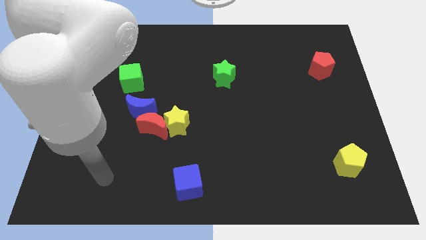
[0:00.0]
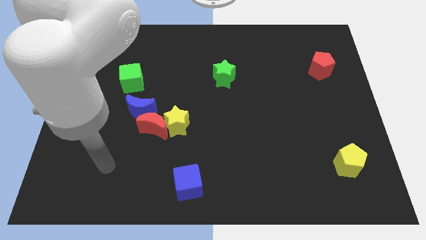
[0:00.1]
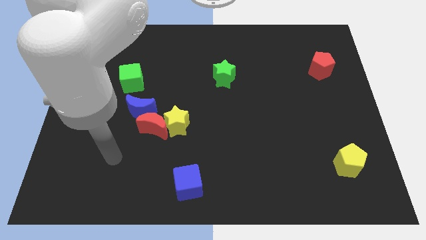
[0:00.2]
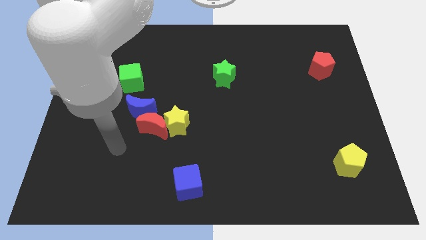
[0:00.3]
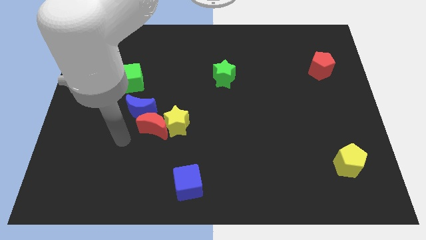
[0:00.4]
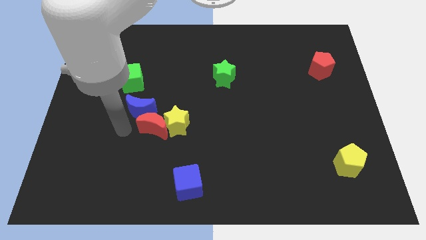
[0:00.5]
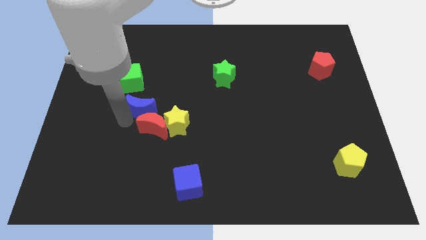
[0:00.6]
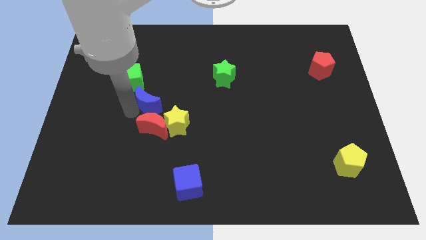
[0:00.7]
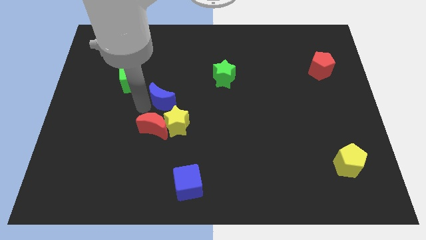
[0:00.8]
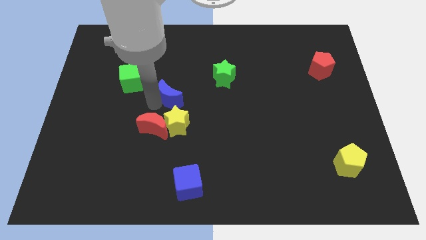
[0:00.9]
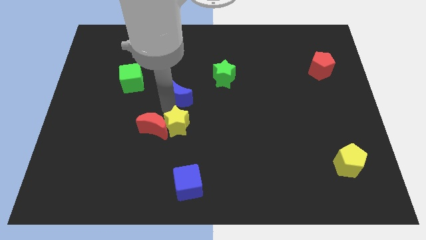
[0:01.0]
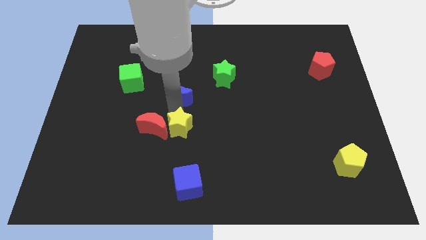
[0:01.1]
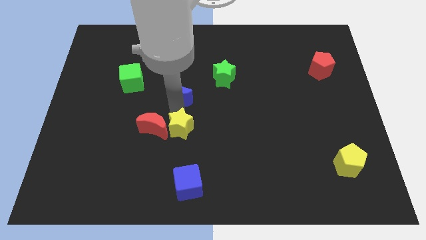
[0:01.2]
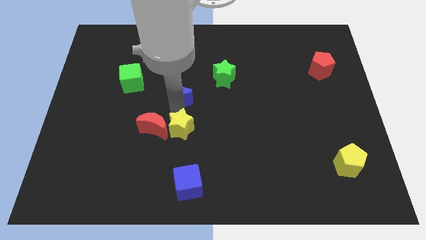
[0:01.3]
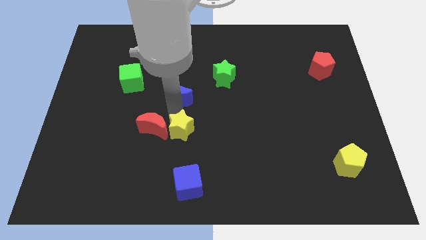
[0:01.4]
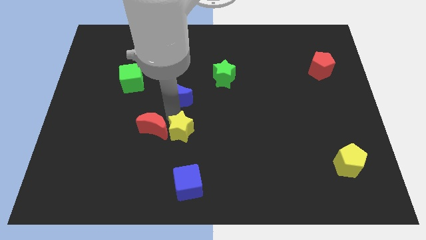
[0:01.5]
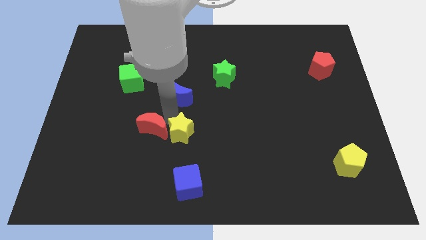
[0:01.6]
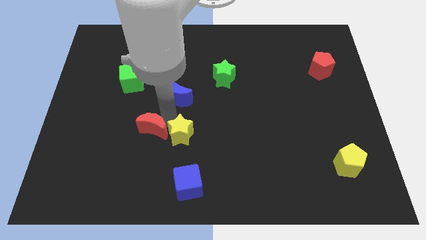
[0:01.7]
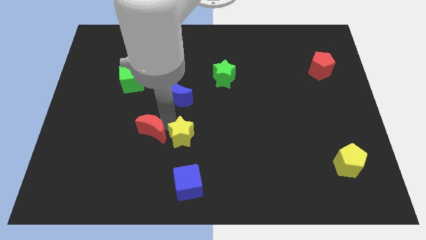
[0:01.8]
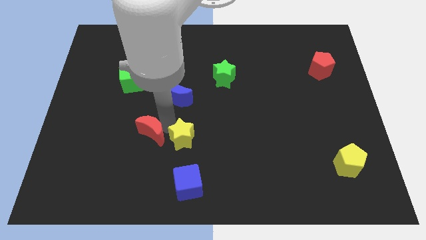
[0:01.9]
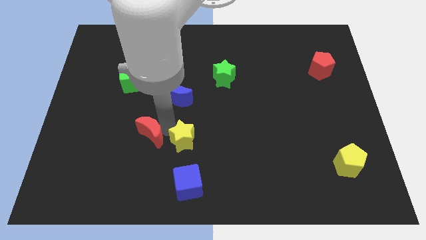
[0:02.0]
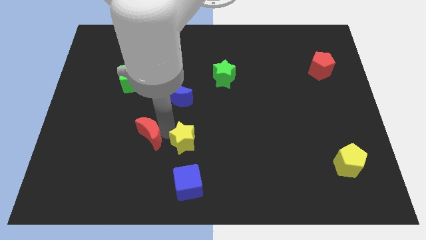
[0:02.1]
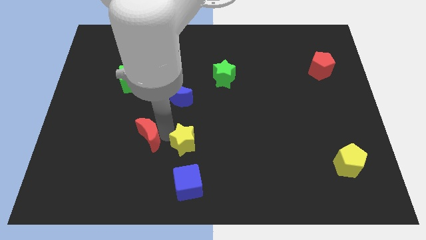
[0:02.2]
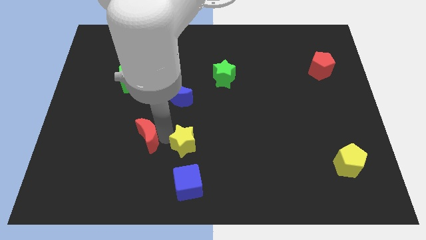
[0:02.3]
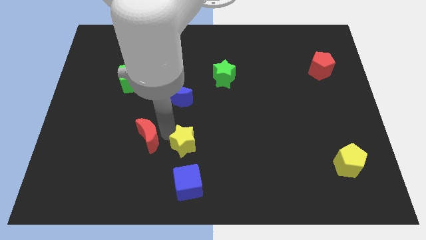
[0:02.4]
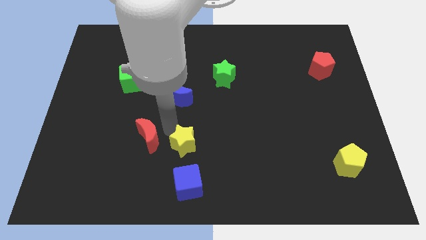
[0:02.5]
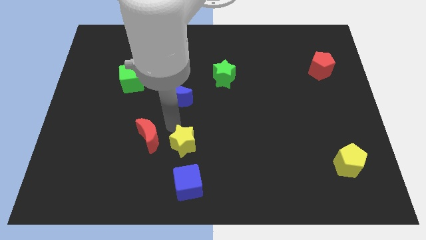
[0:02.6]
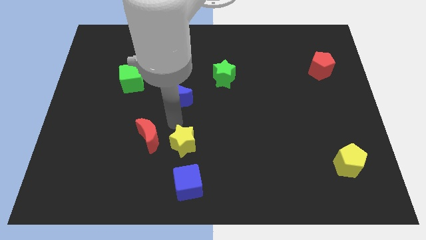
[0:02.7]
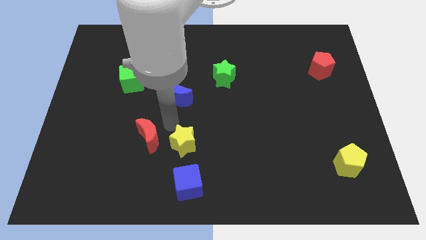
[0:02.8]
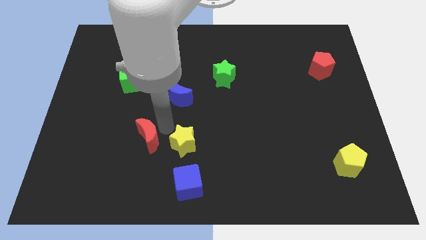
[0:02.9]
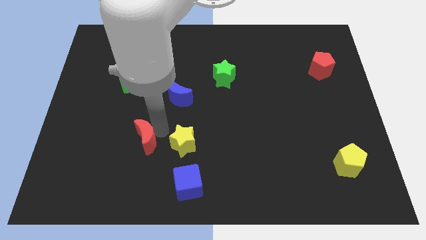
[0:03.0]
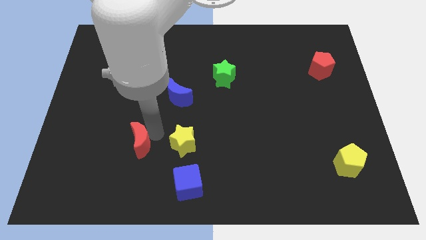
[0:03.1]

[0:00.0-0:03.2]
separate the red moon from the yellow star and blue moon

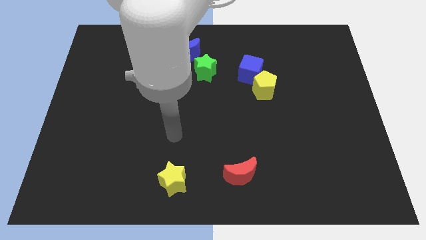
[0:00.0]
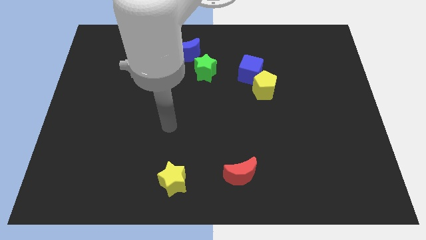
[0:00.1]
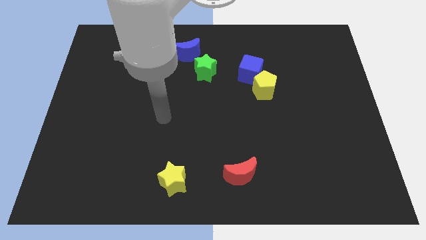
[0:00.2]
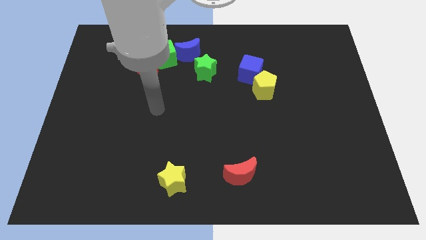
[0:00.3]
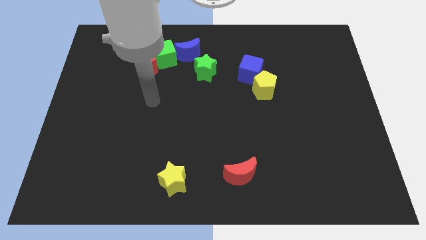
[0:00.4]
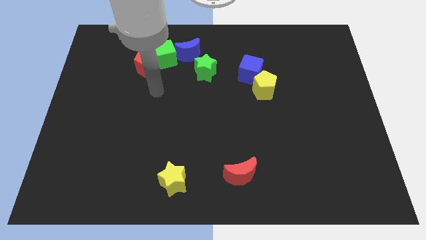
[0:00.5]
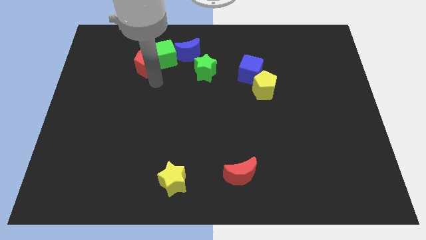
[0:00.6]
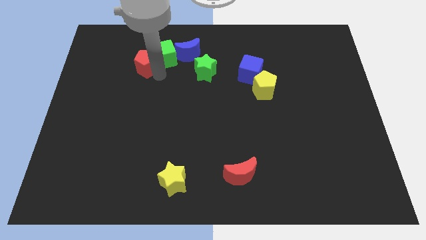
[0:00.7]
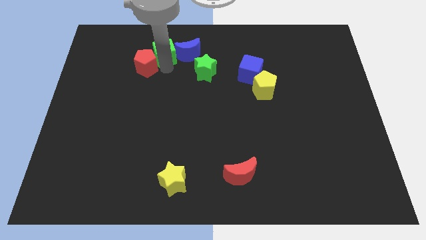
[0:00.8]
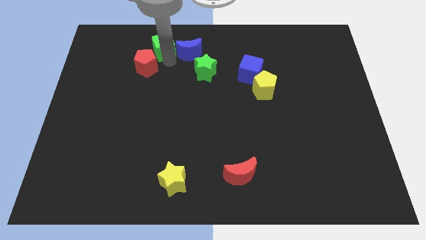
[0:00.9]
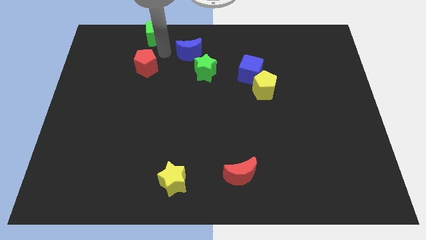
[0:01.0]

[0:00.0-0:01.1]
separate the red pentagon from the green cube

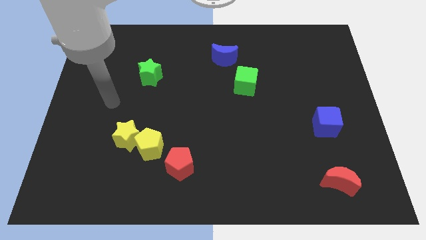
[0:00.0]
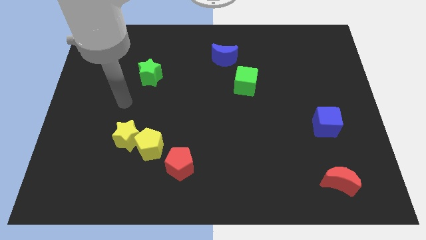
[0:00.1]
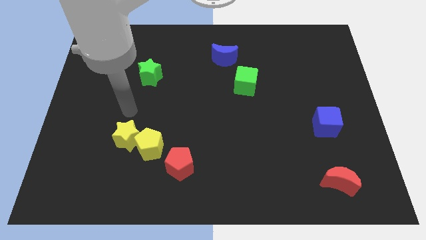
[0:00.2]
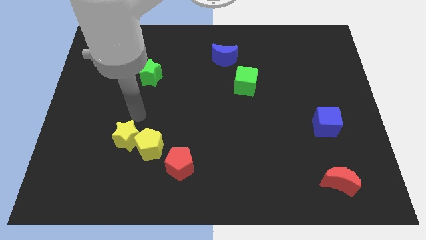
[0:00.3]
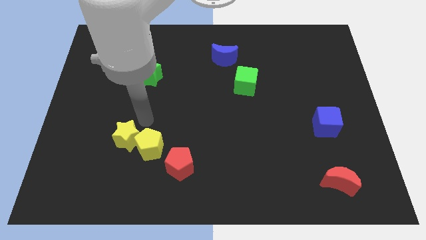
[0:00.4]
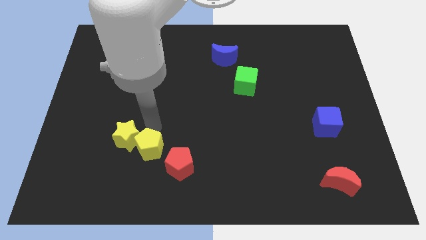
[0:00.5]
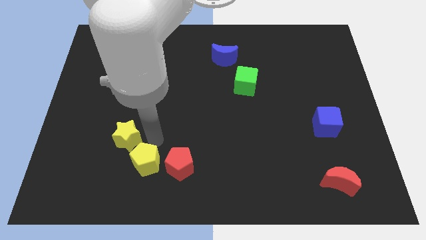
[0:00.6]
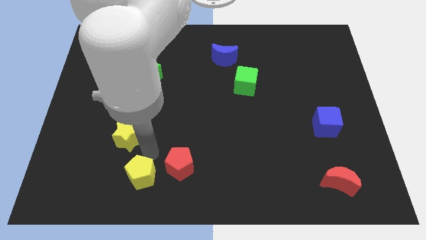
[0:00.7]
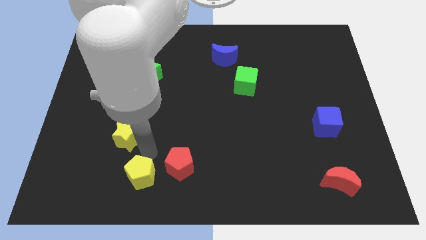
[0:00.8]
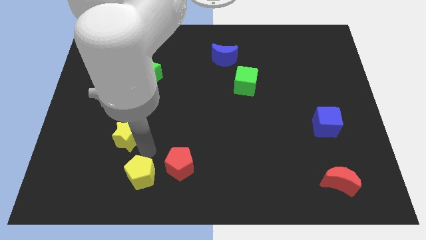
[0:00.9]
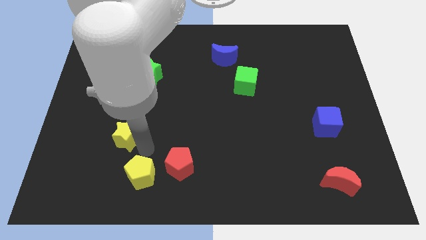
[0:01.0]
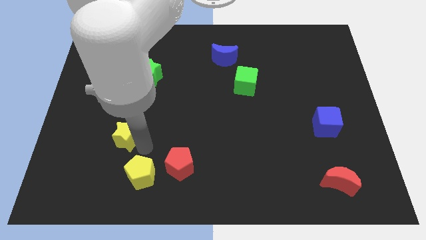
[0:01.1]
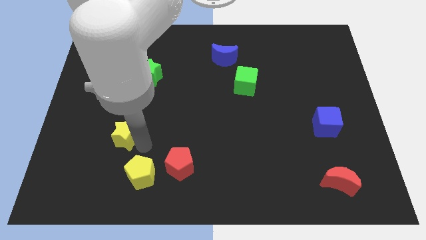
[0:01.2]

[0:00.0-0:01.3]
move the yellow star away from the yellow pentagon

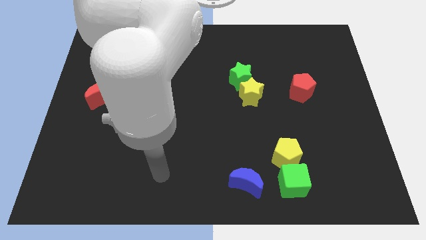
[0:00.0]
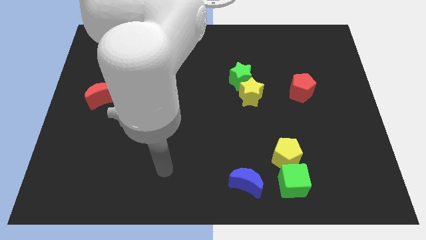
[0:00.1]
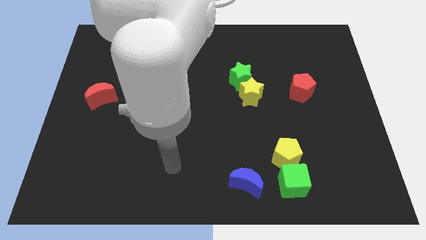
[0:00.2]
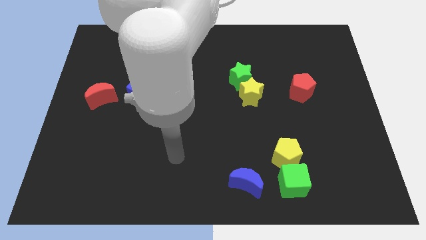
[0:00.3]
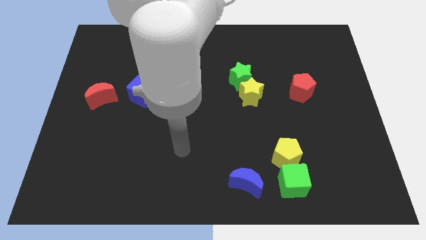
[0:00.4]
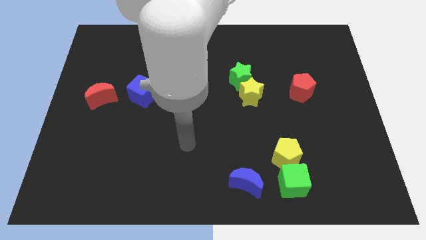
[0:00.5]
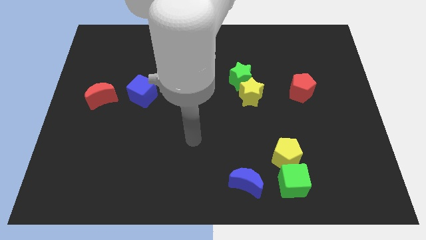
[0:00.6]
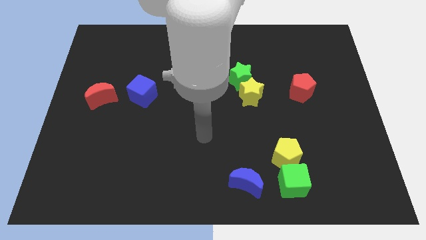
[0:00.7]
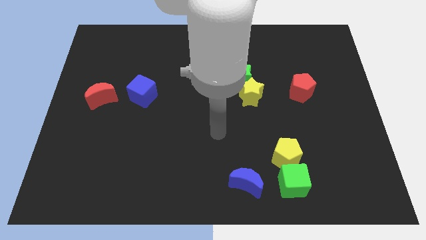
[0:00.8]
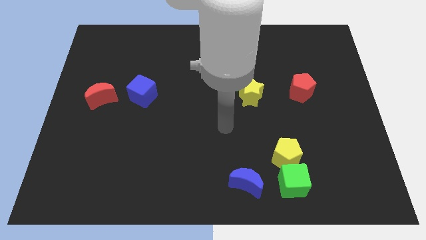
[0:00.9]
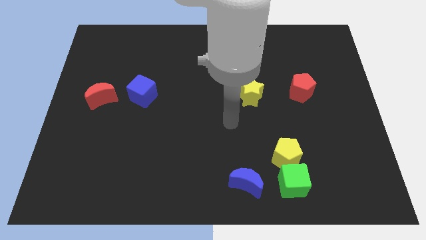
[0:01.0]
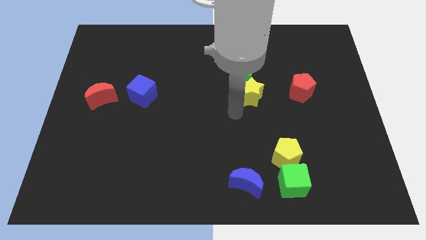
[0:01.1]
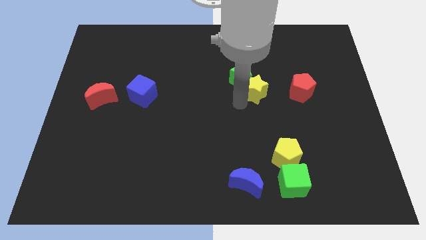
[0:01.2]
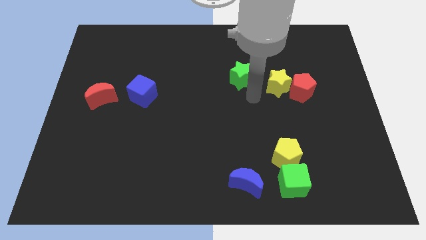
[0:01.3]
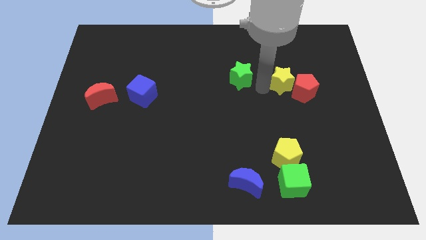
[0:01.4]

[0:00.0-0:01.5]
move the green star away from the yellow star

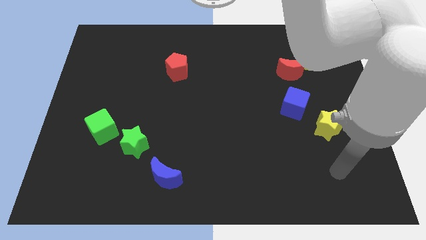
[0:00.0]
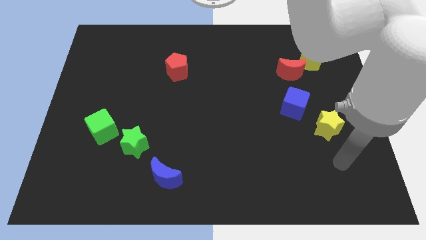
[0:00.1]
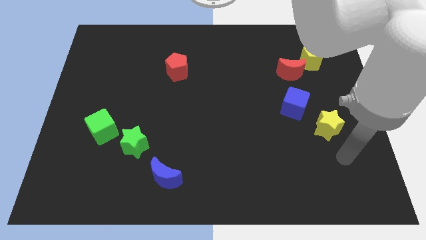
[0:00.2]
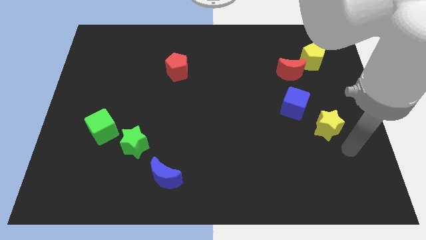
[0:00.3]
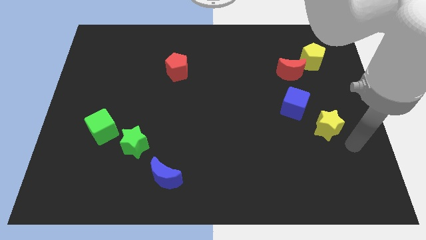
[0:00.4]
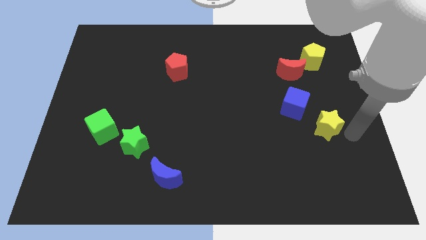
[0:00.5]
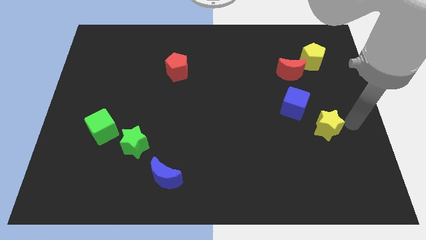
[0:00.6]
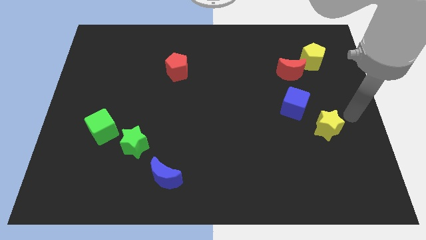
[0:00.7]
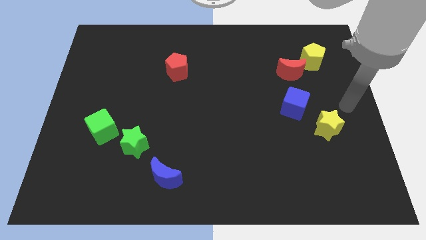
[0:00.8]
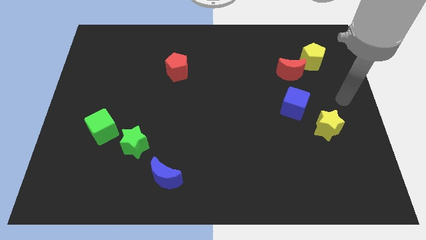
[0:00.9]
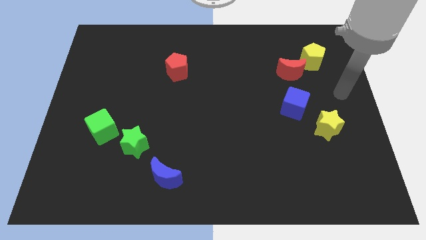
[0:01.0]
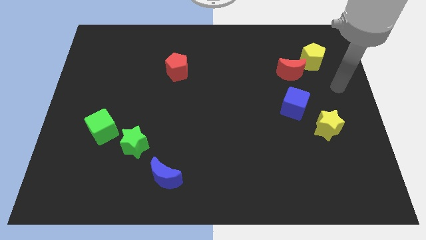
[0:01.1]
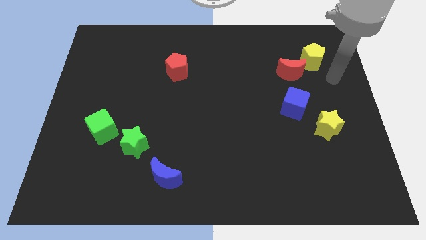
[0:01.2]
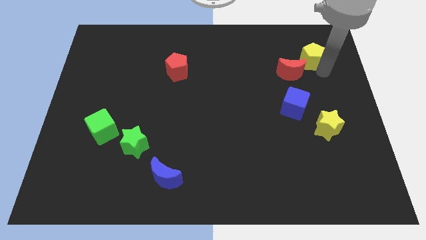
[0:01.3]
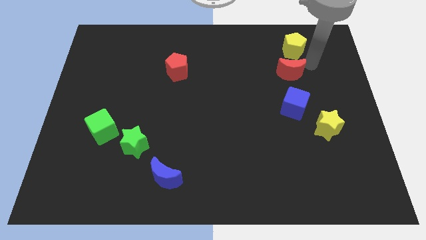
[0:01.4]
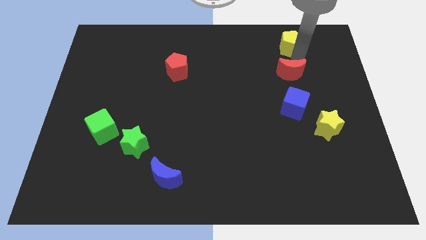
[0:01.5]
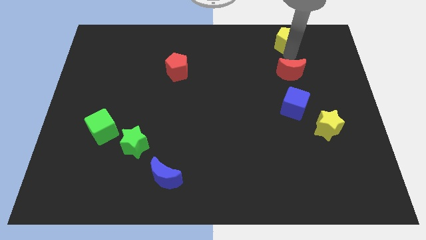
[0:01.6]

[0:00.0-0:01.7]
pull the red moon apart from the yellow pentagon

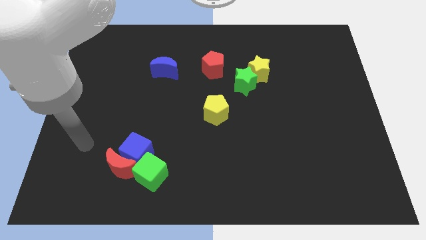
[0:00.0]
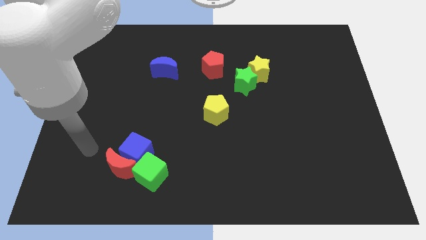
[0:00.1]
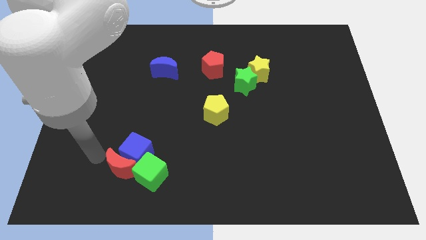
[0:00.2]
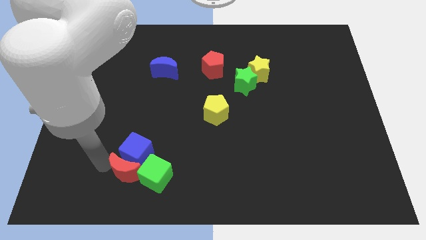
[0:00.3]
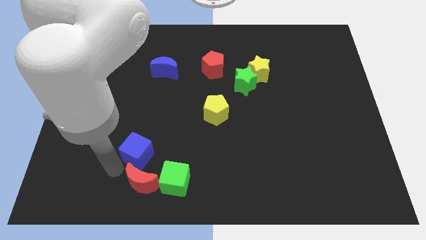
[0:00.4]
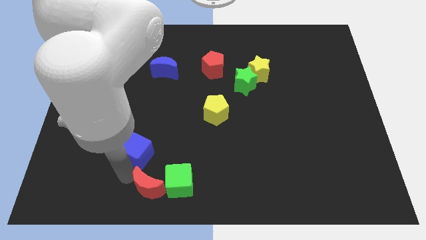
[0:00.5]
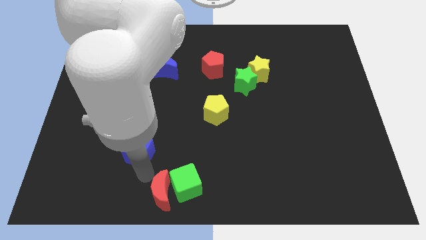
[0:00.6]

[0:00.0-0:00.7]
separate the blue cube from the red moon and green cube
